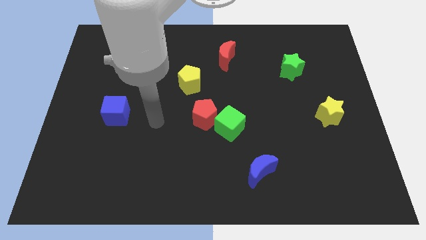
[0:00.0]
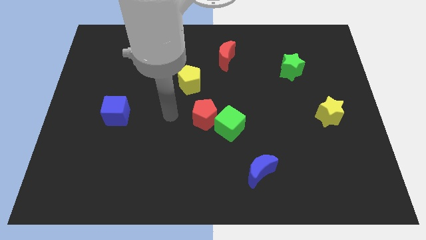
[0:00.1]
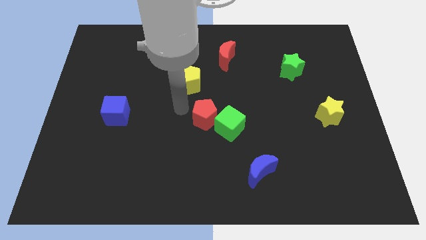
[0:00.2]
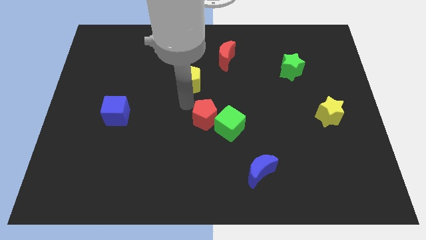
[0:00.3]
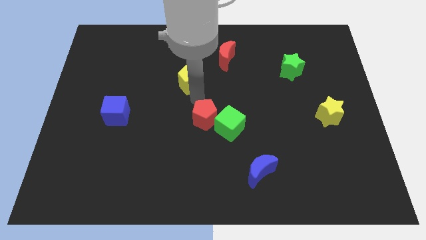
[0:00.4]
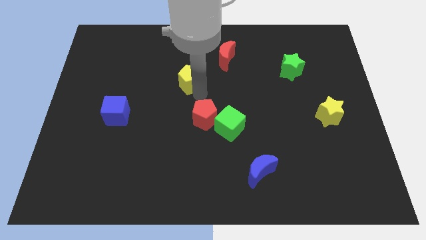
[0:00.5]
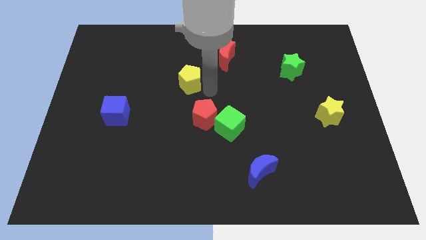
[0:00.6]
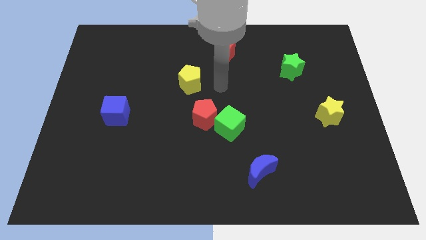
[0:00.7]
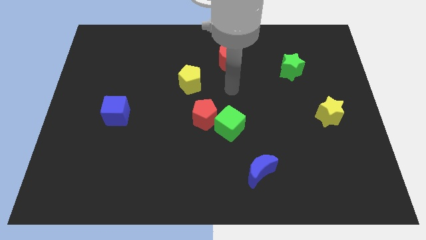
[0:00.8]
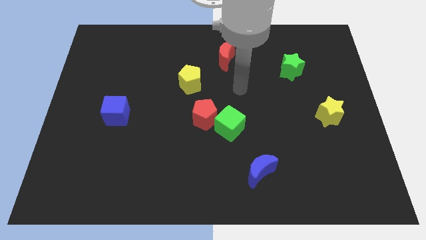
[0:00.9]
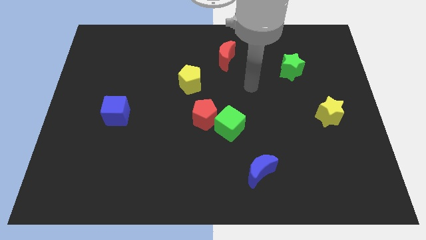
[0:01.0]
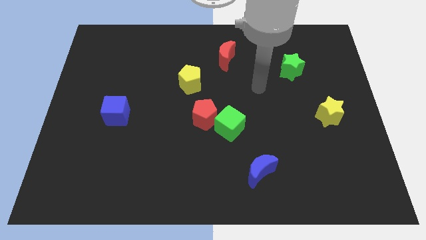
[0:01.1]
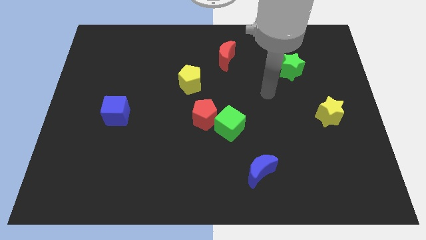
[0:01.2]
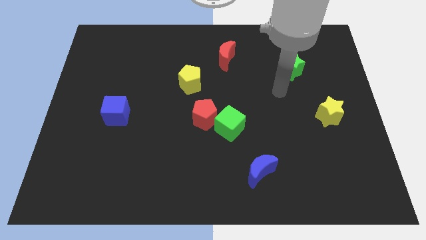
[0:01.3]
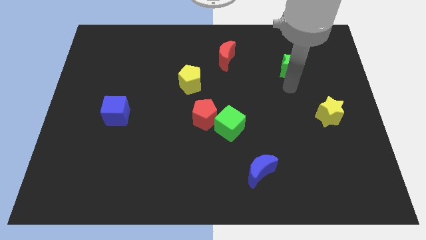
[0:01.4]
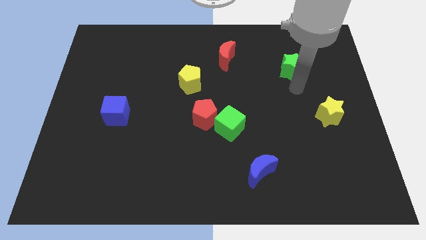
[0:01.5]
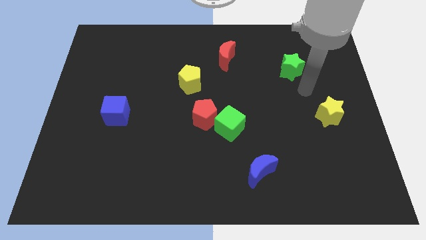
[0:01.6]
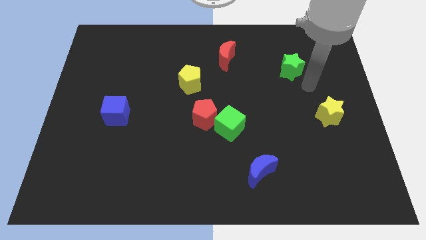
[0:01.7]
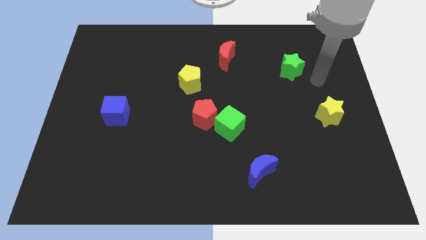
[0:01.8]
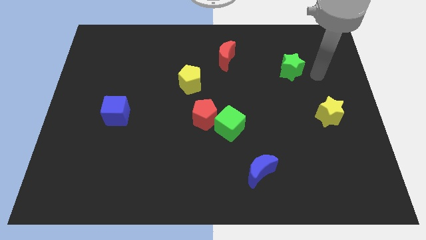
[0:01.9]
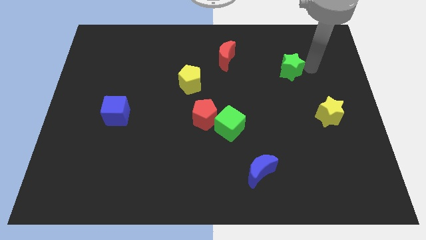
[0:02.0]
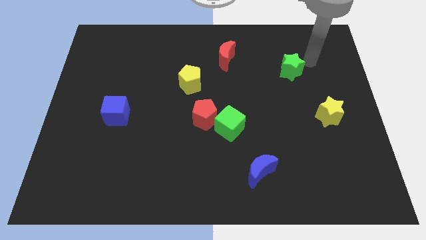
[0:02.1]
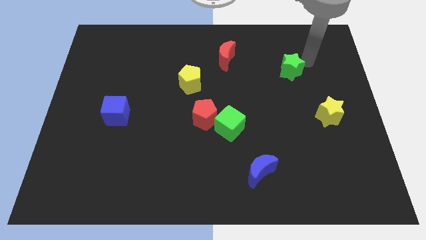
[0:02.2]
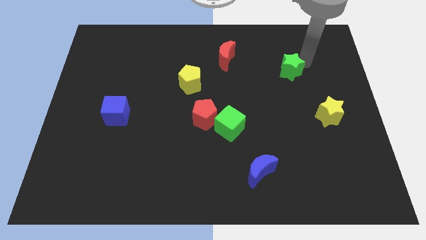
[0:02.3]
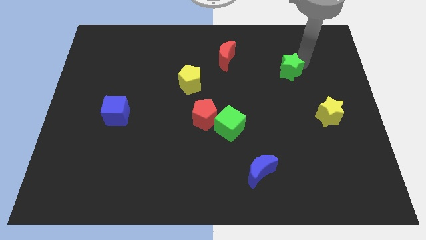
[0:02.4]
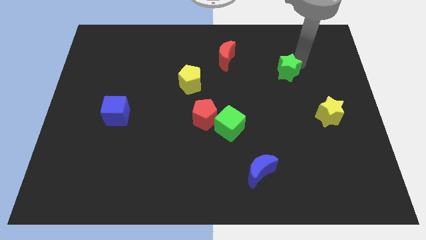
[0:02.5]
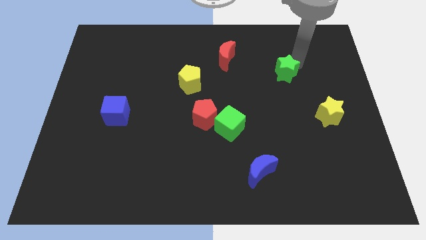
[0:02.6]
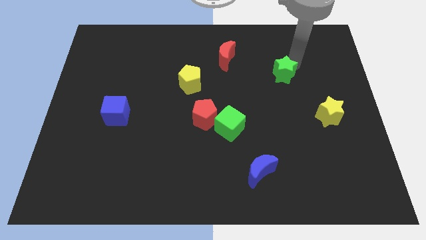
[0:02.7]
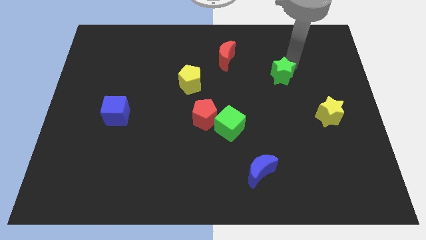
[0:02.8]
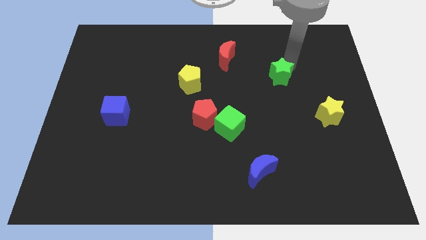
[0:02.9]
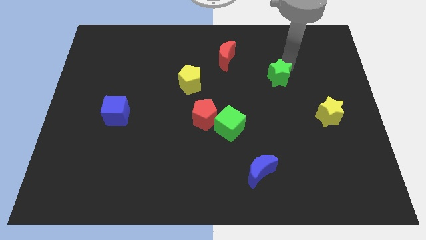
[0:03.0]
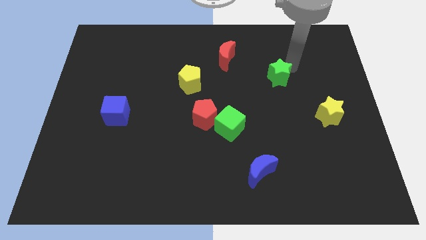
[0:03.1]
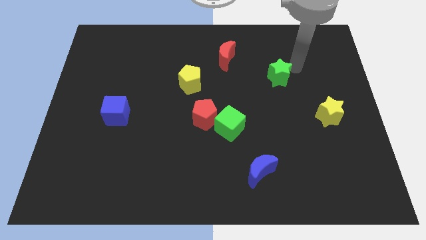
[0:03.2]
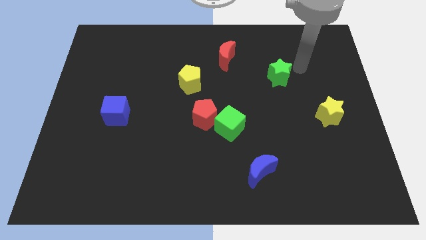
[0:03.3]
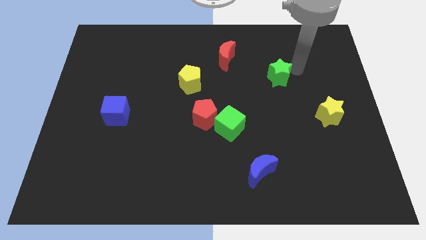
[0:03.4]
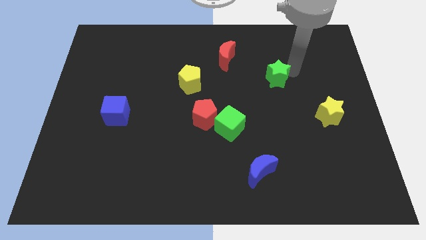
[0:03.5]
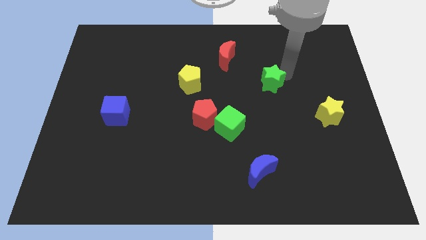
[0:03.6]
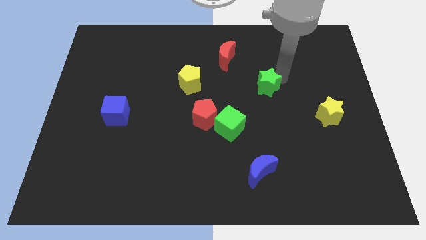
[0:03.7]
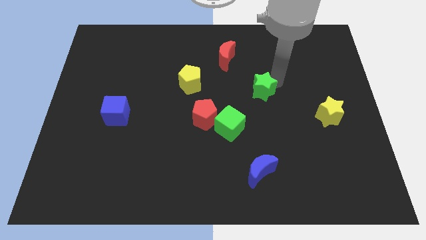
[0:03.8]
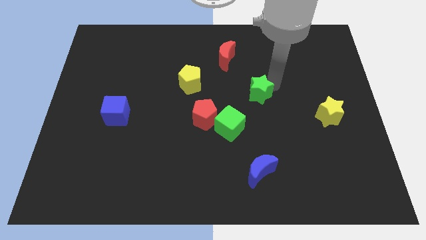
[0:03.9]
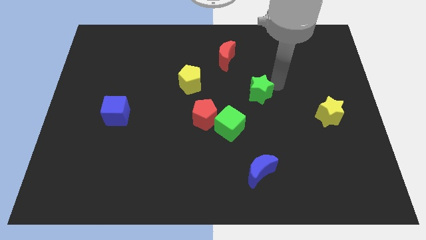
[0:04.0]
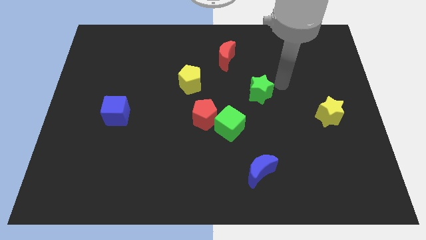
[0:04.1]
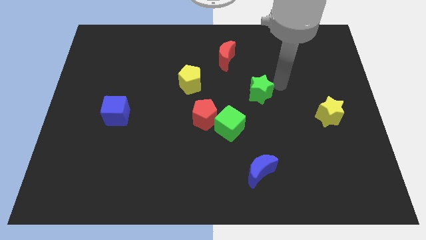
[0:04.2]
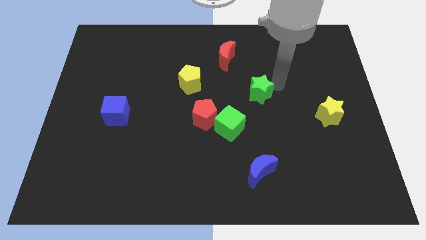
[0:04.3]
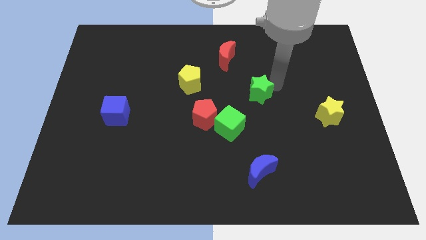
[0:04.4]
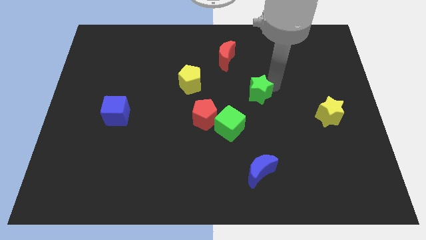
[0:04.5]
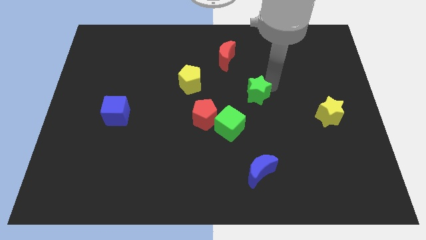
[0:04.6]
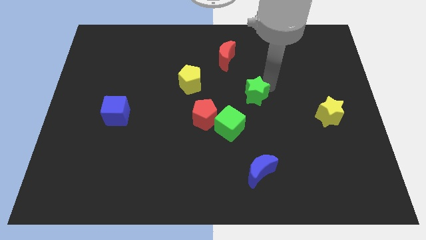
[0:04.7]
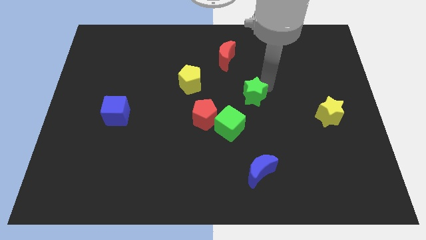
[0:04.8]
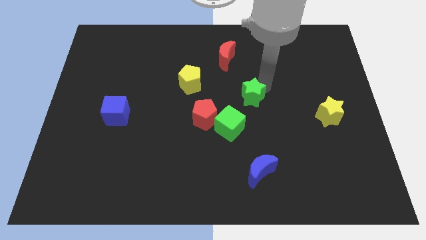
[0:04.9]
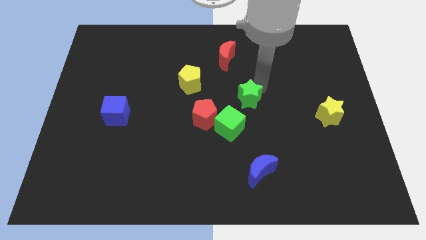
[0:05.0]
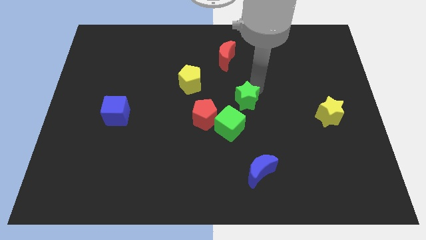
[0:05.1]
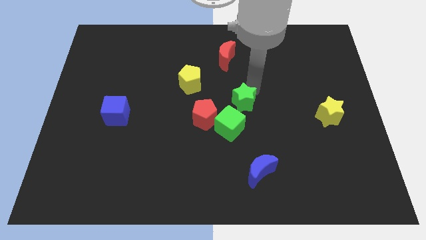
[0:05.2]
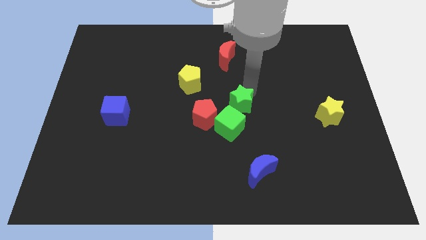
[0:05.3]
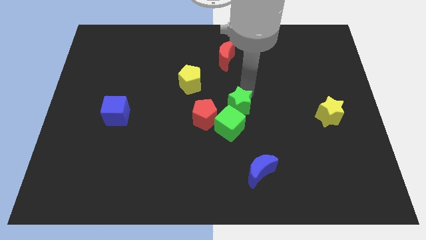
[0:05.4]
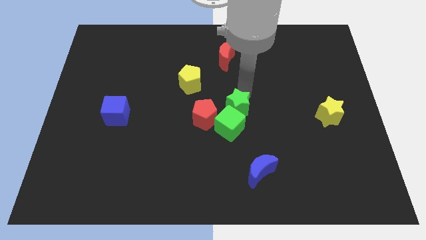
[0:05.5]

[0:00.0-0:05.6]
push the green star to the green cube

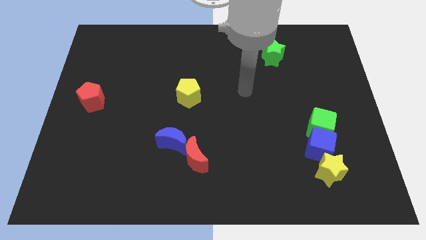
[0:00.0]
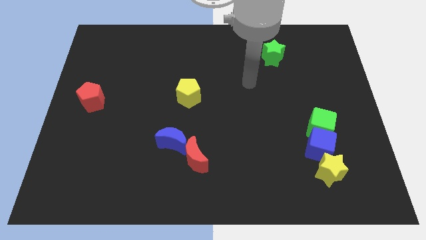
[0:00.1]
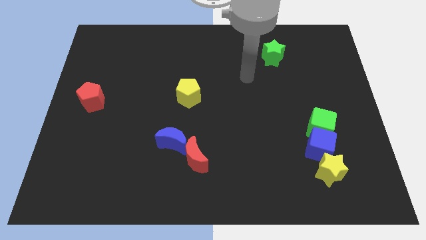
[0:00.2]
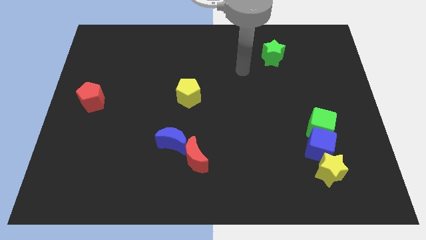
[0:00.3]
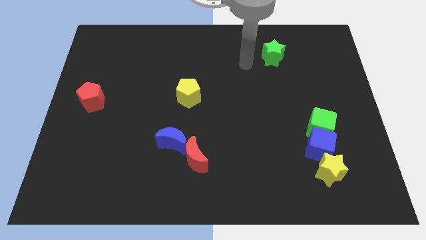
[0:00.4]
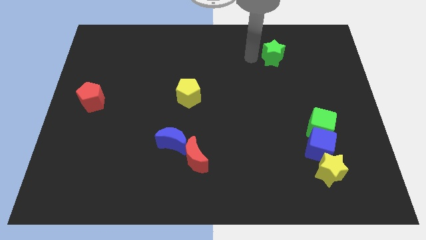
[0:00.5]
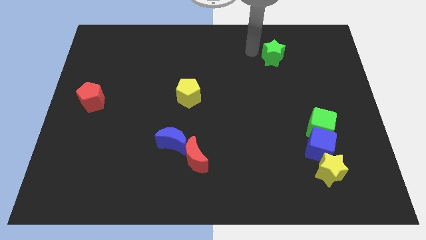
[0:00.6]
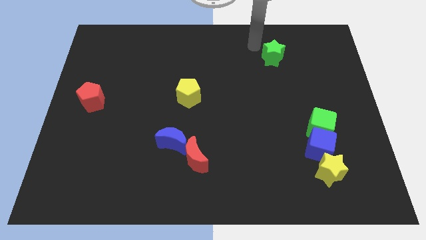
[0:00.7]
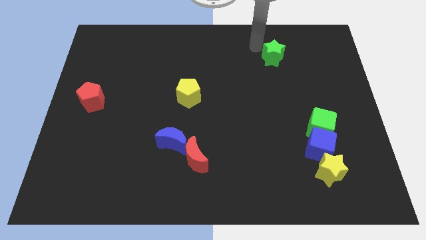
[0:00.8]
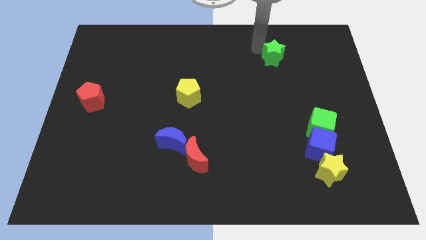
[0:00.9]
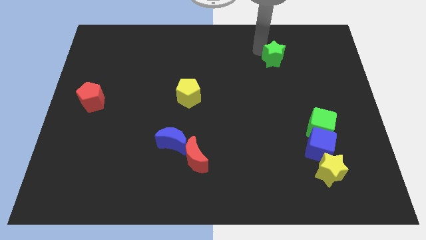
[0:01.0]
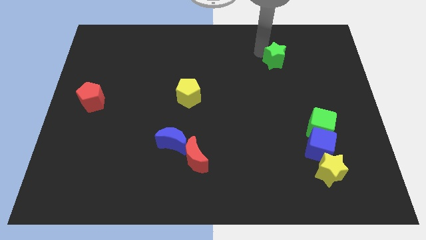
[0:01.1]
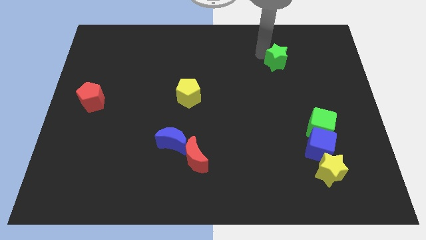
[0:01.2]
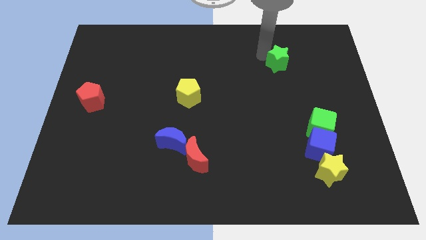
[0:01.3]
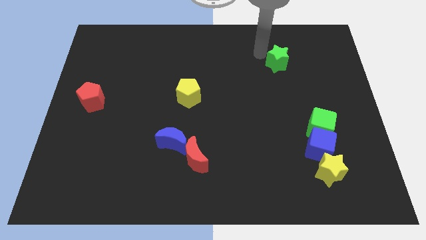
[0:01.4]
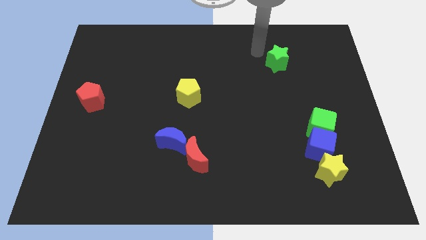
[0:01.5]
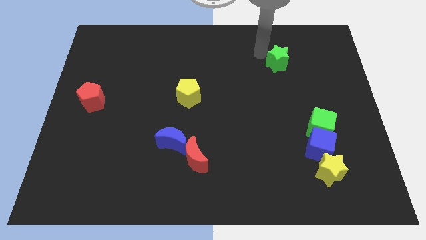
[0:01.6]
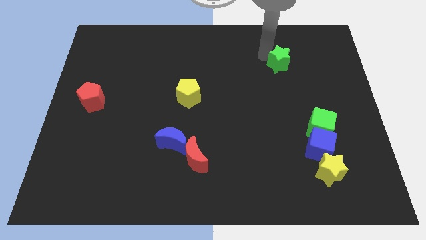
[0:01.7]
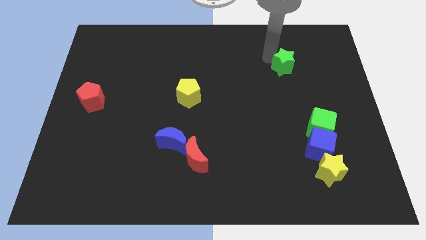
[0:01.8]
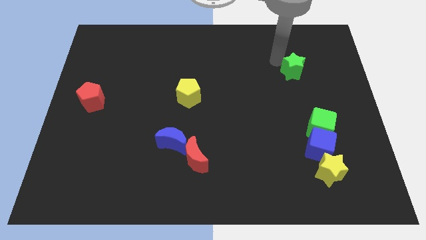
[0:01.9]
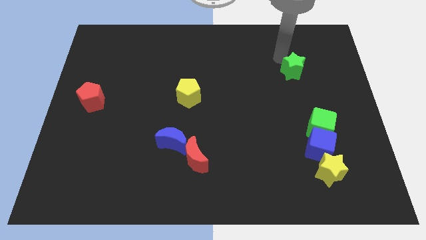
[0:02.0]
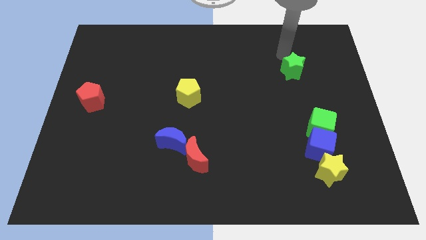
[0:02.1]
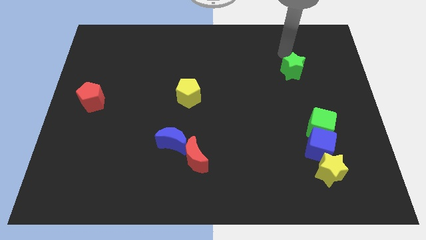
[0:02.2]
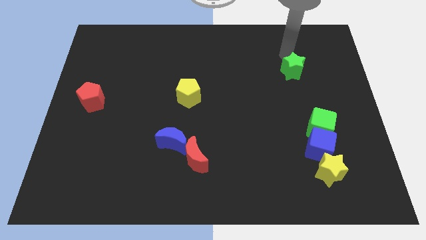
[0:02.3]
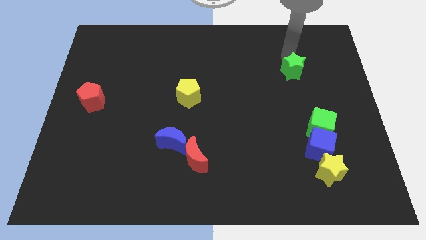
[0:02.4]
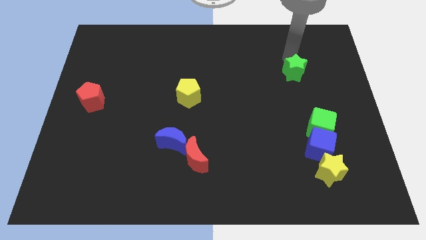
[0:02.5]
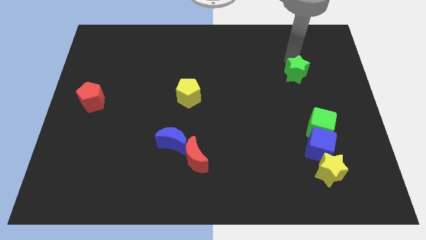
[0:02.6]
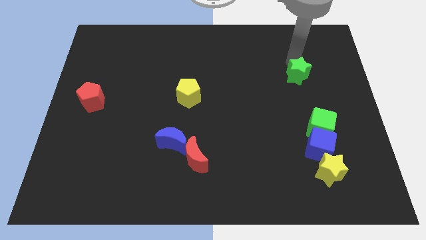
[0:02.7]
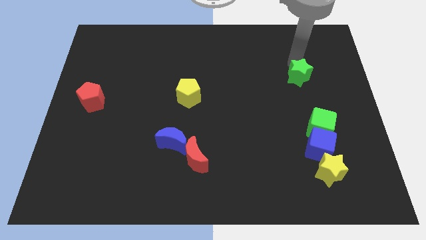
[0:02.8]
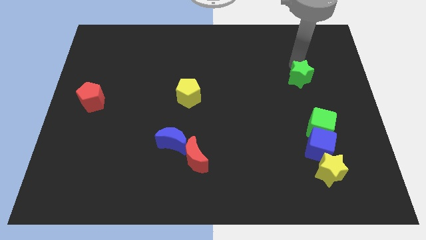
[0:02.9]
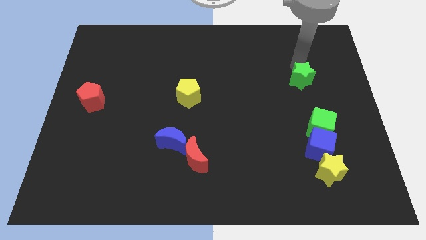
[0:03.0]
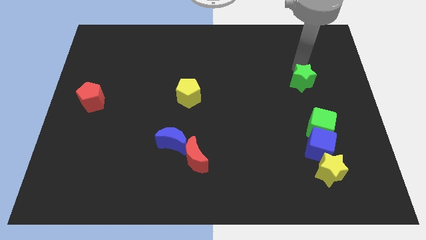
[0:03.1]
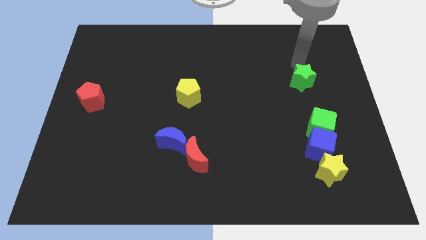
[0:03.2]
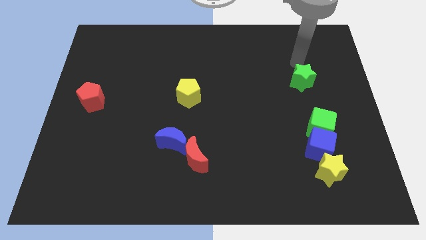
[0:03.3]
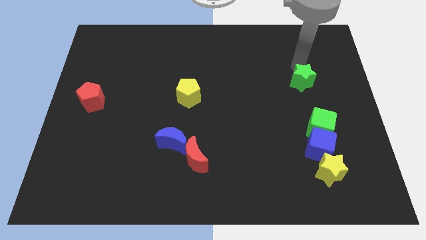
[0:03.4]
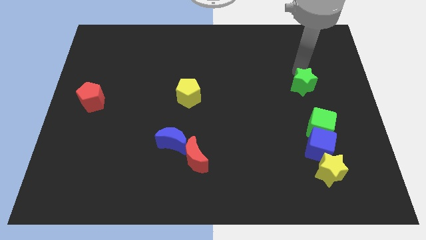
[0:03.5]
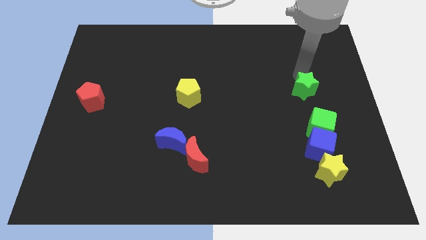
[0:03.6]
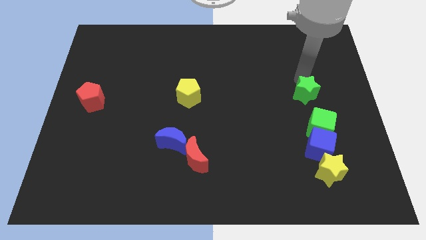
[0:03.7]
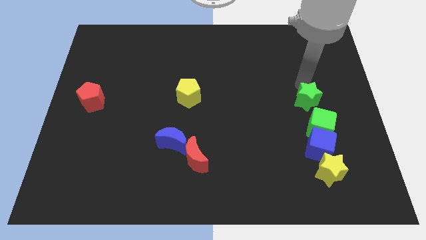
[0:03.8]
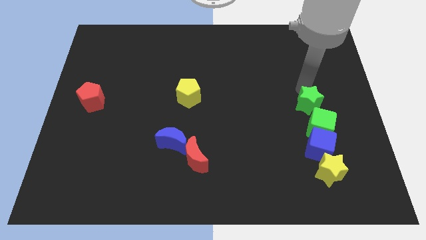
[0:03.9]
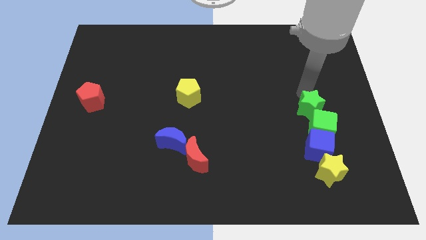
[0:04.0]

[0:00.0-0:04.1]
slide the green star towards the green cube
